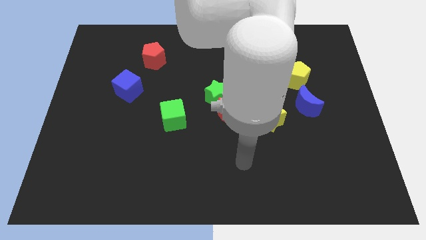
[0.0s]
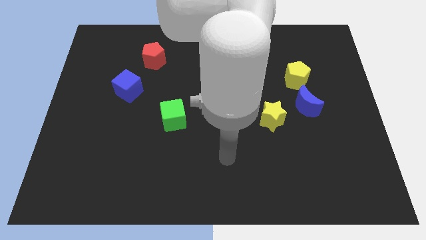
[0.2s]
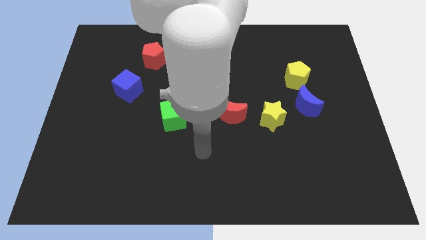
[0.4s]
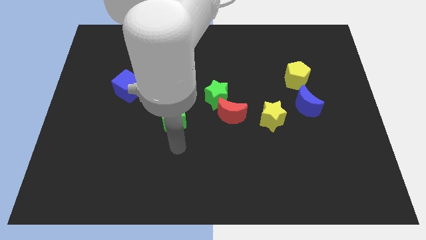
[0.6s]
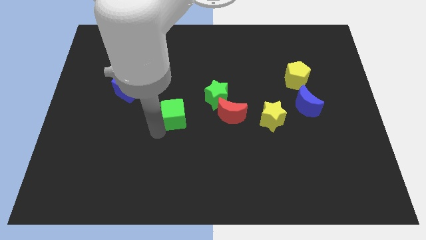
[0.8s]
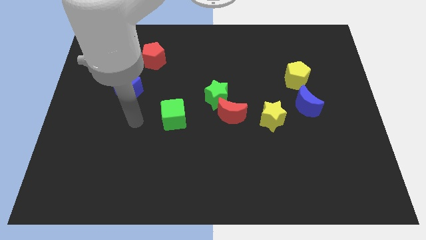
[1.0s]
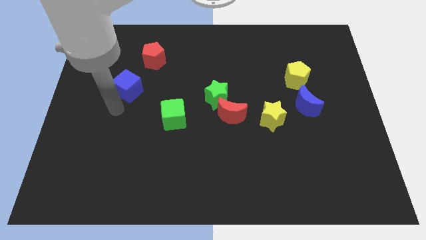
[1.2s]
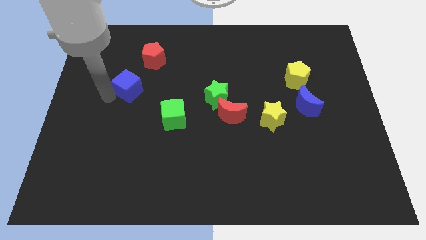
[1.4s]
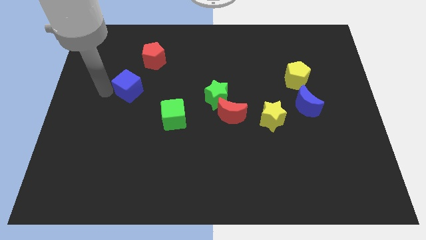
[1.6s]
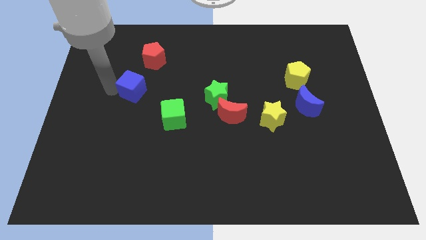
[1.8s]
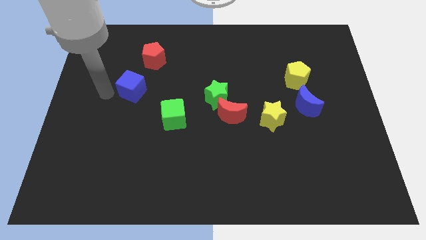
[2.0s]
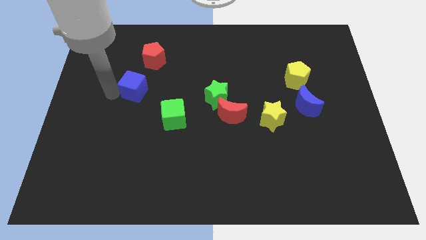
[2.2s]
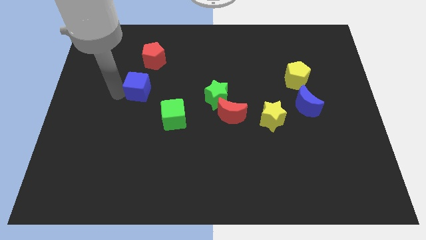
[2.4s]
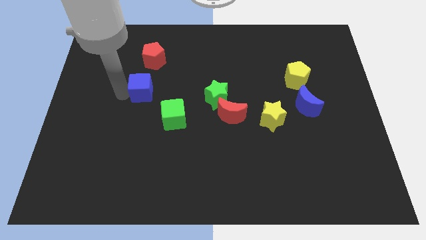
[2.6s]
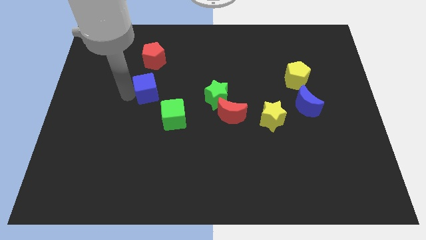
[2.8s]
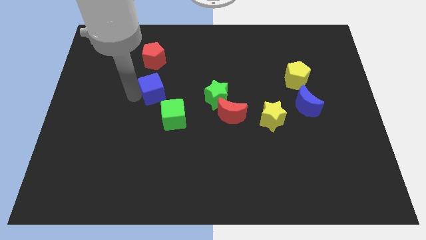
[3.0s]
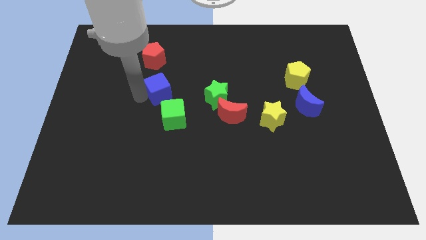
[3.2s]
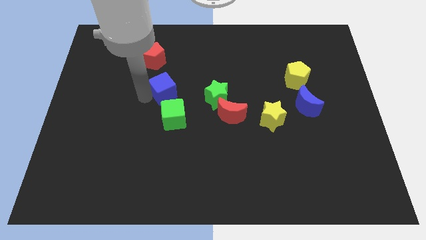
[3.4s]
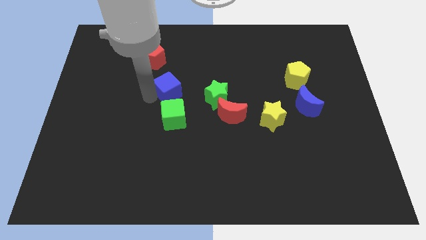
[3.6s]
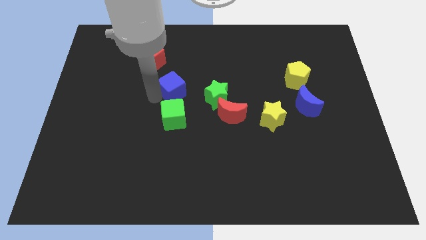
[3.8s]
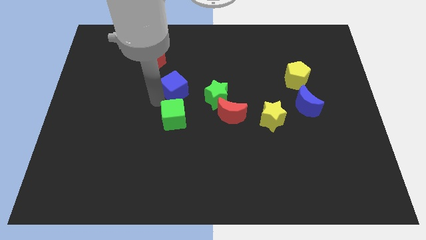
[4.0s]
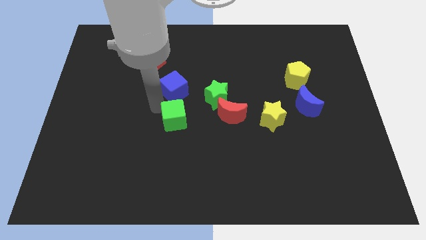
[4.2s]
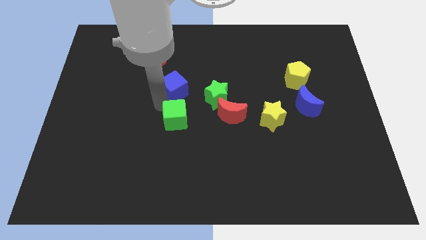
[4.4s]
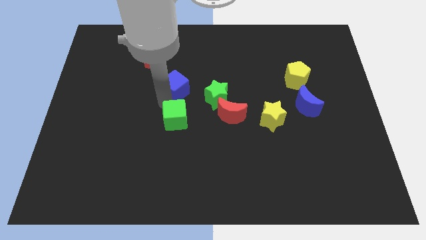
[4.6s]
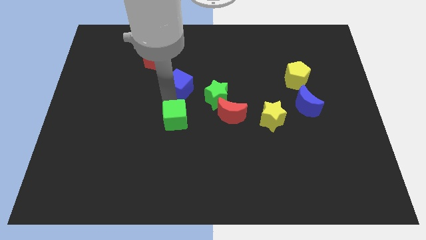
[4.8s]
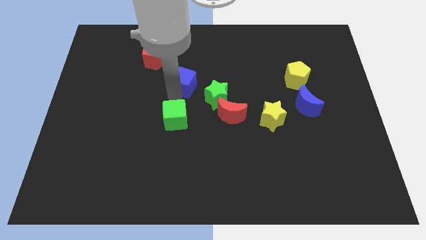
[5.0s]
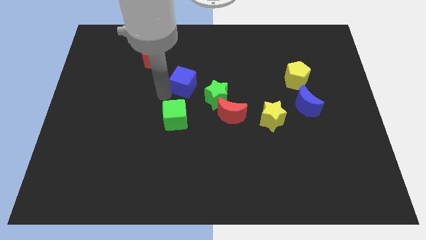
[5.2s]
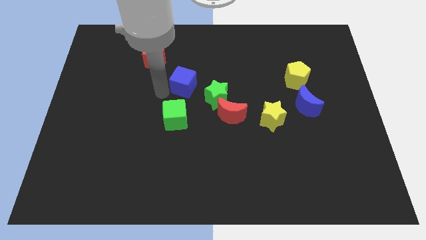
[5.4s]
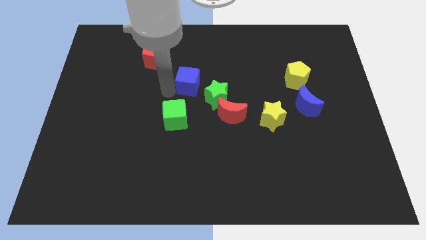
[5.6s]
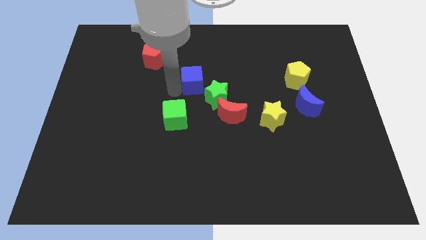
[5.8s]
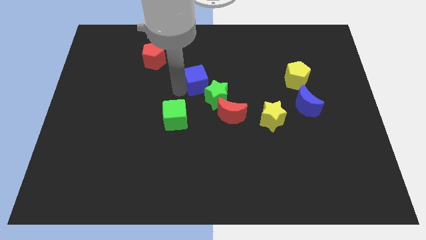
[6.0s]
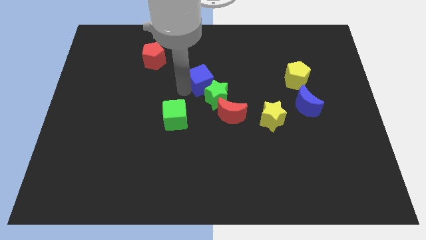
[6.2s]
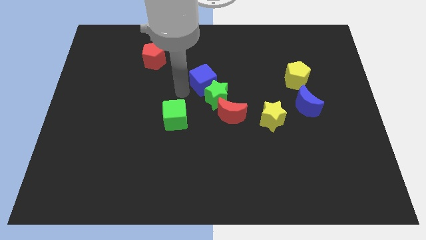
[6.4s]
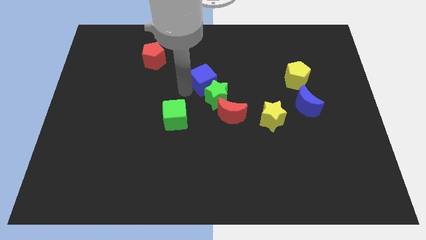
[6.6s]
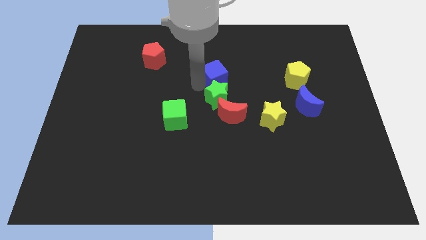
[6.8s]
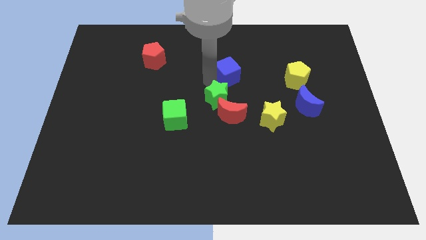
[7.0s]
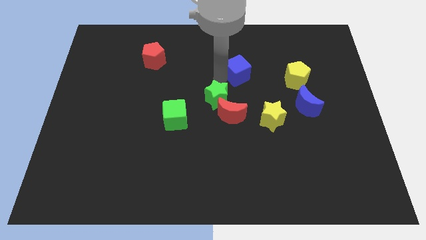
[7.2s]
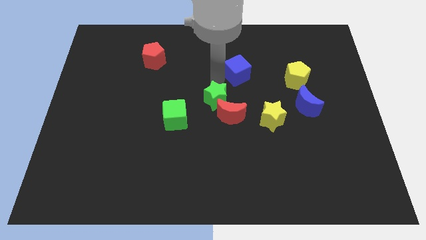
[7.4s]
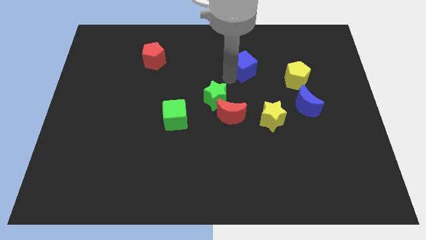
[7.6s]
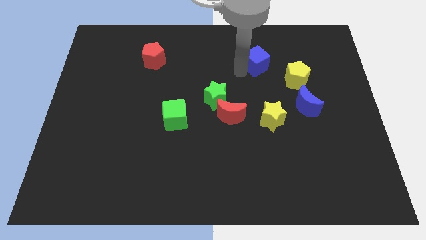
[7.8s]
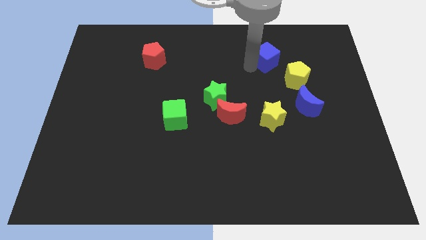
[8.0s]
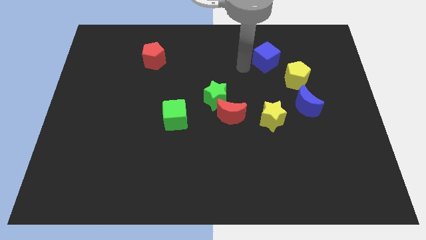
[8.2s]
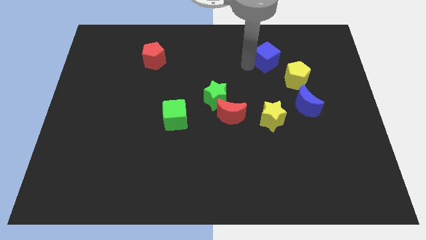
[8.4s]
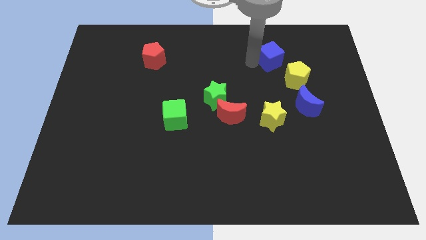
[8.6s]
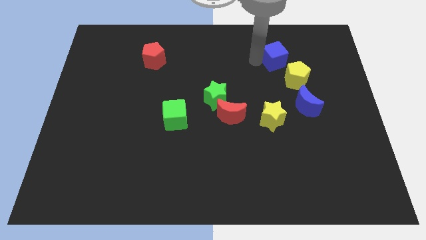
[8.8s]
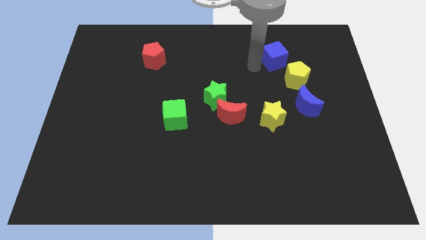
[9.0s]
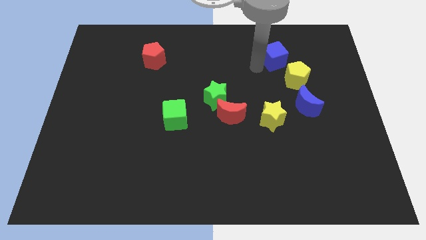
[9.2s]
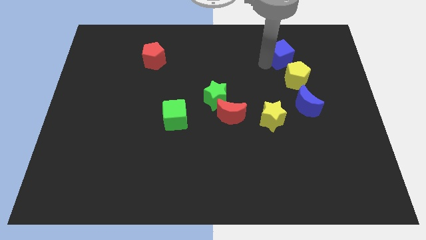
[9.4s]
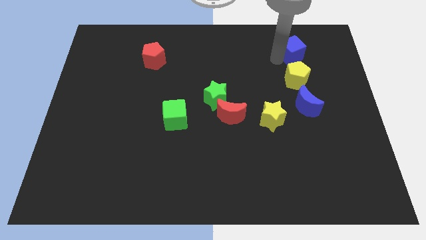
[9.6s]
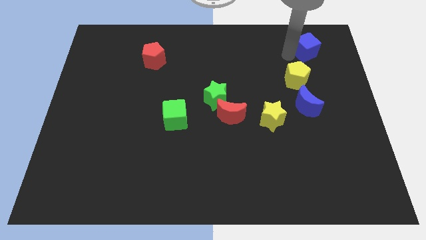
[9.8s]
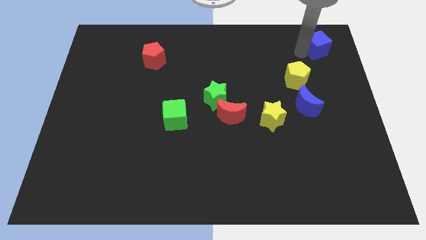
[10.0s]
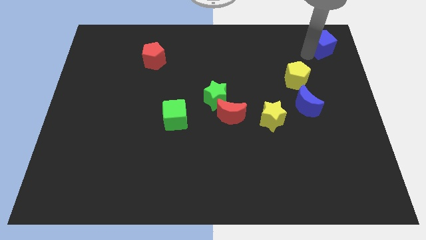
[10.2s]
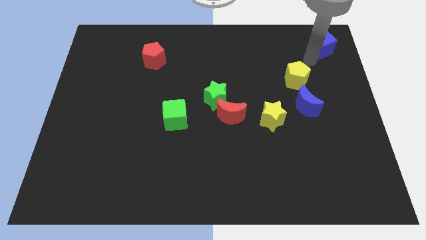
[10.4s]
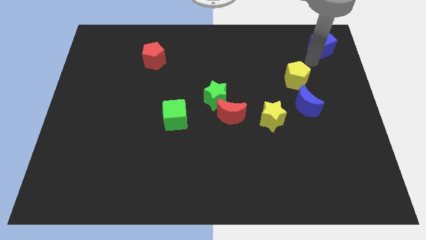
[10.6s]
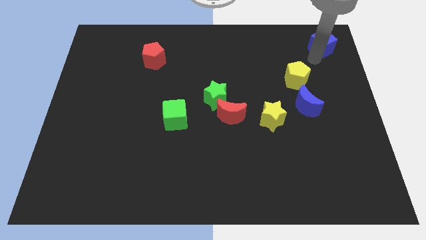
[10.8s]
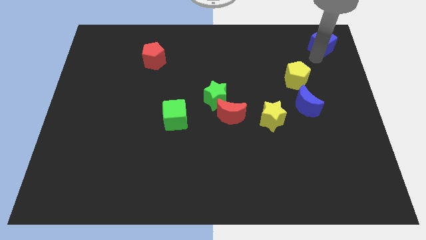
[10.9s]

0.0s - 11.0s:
push the blue cube to the top right

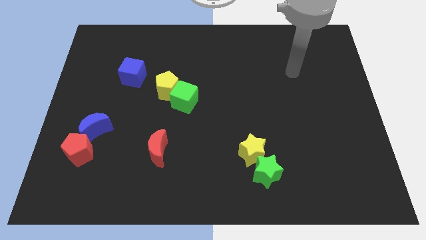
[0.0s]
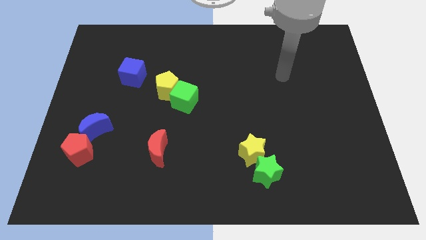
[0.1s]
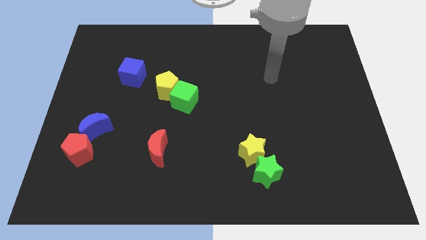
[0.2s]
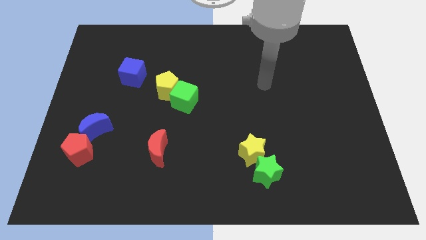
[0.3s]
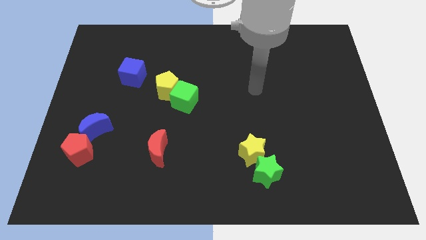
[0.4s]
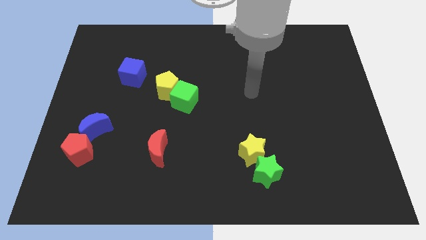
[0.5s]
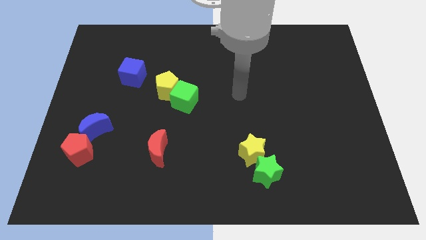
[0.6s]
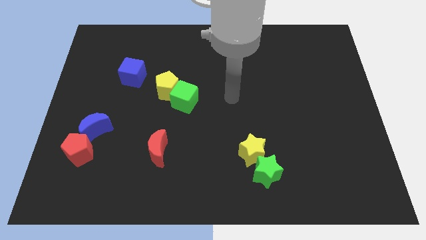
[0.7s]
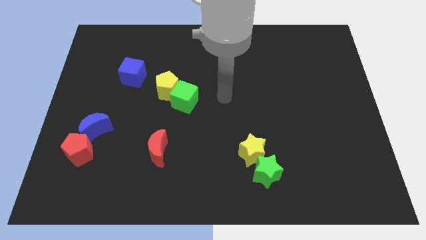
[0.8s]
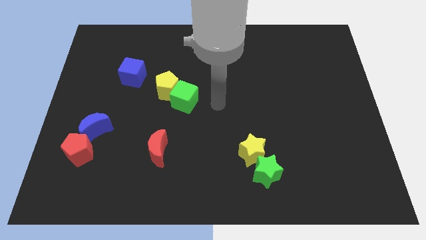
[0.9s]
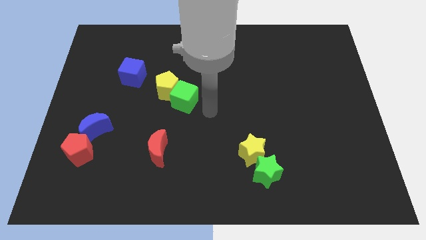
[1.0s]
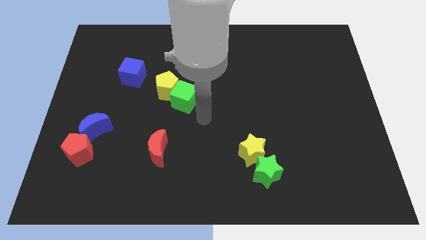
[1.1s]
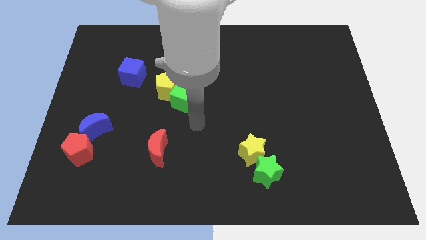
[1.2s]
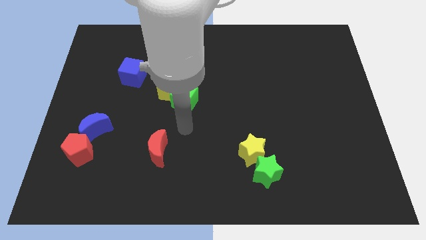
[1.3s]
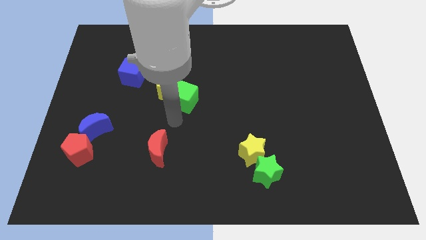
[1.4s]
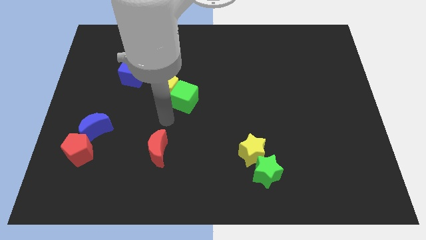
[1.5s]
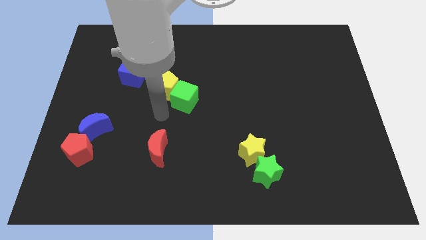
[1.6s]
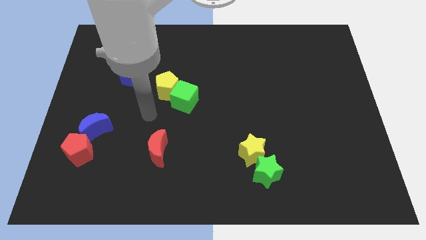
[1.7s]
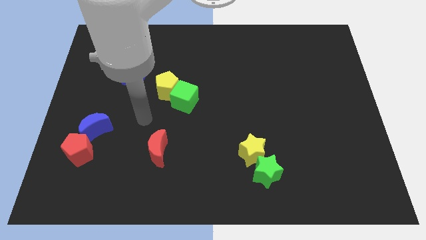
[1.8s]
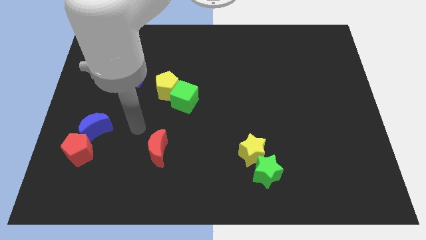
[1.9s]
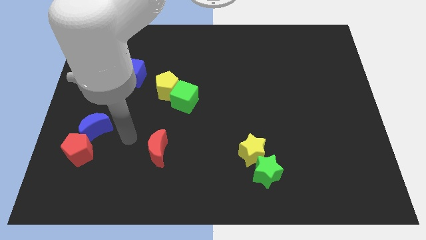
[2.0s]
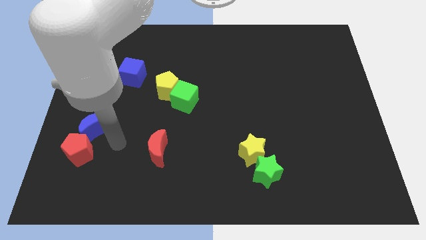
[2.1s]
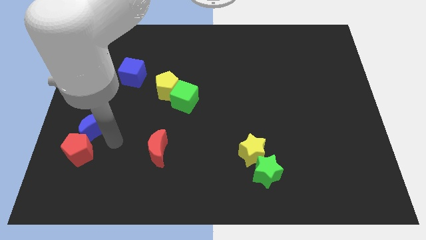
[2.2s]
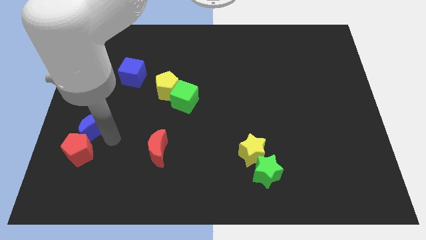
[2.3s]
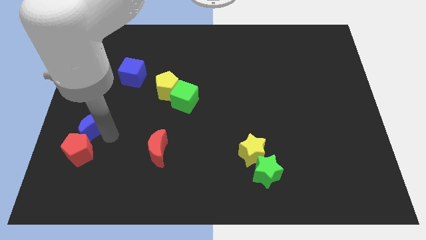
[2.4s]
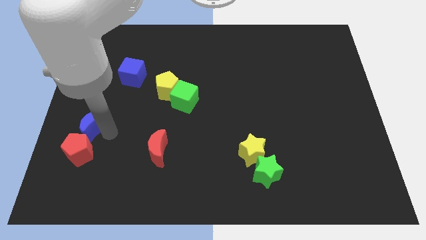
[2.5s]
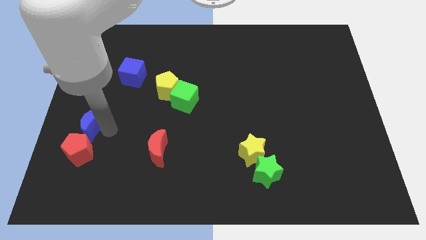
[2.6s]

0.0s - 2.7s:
move the blue moon to the center left
